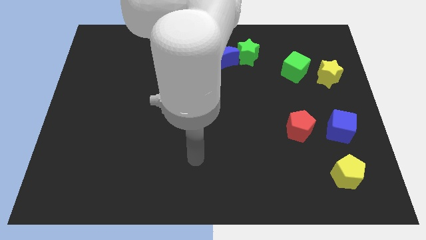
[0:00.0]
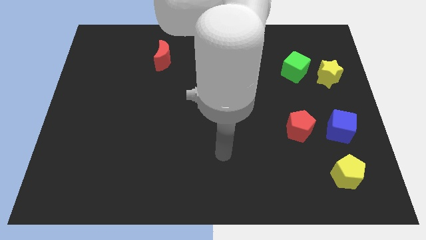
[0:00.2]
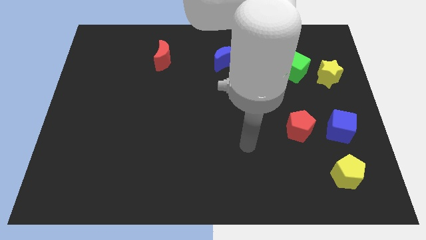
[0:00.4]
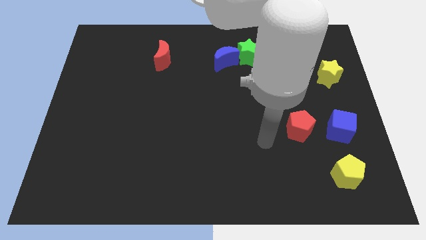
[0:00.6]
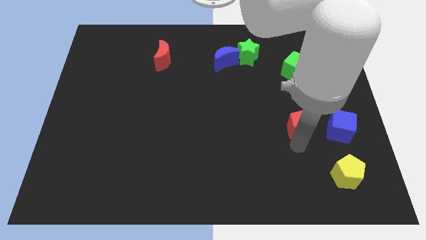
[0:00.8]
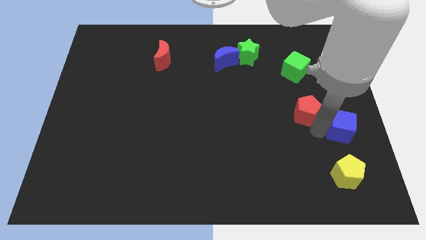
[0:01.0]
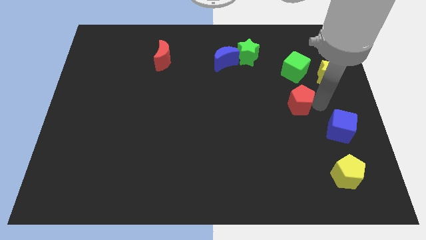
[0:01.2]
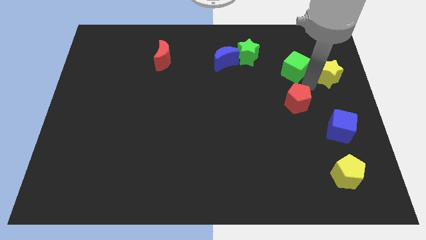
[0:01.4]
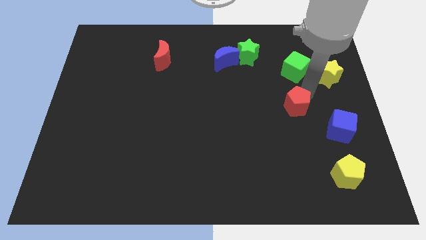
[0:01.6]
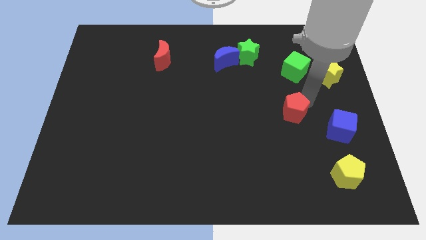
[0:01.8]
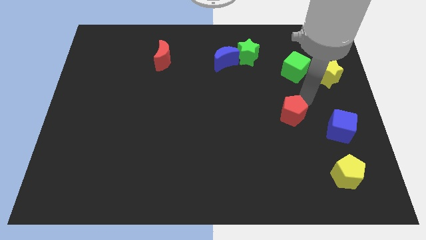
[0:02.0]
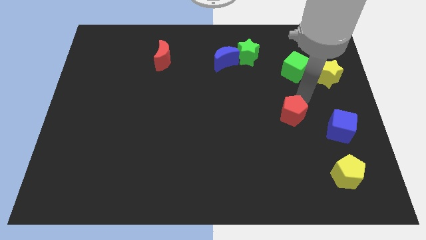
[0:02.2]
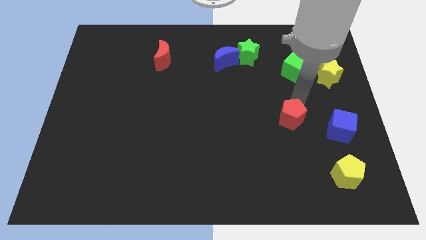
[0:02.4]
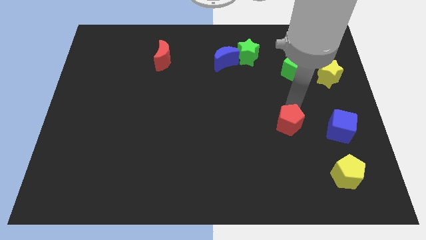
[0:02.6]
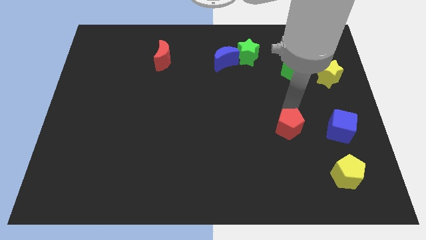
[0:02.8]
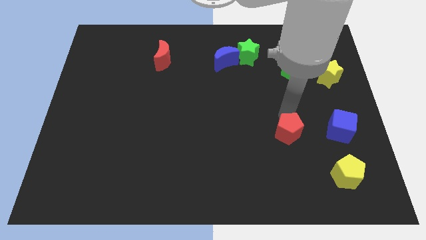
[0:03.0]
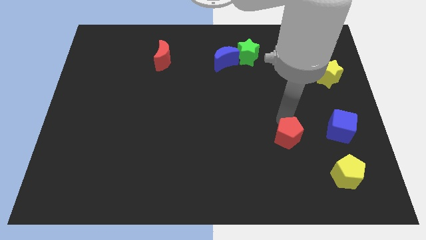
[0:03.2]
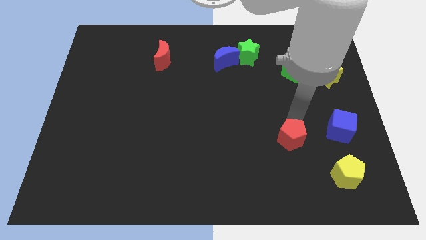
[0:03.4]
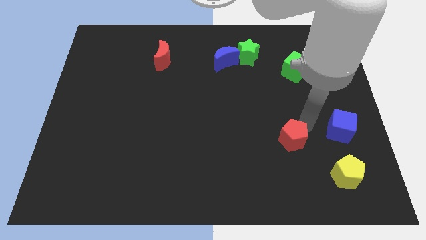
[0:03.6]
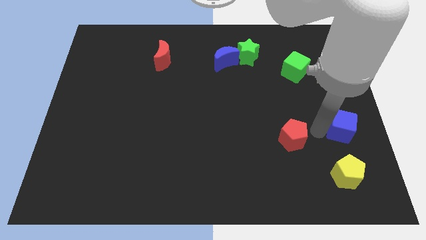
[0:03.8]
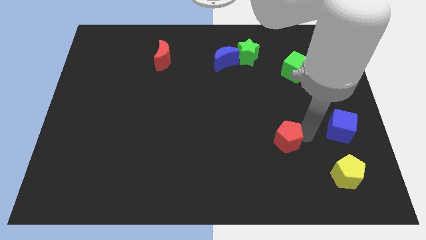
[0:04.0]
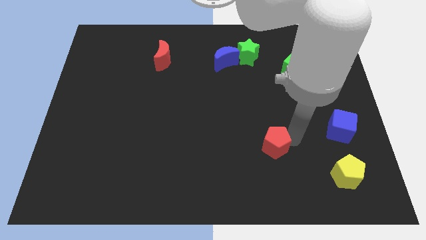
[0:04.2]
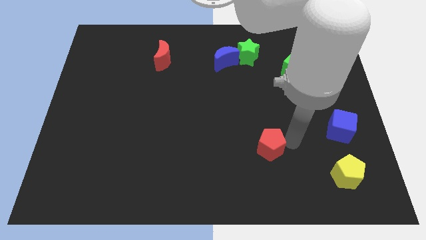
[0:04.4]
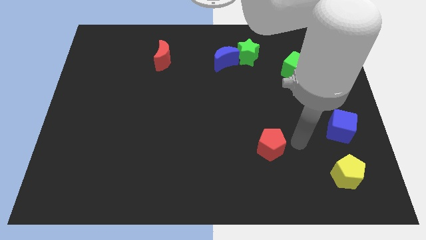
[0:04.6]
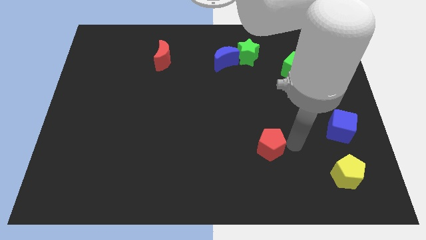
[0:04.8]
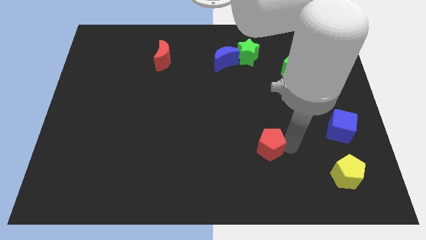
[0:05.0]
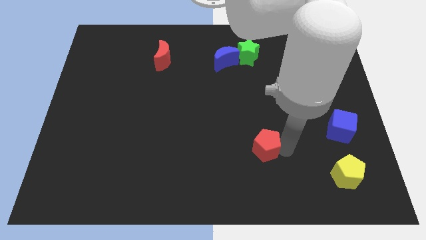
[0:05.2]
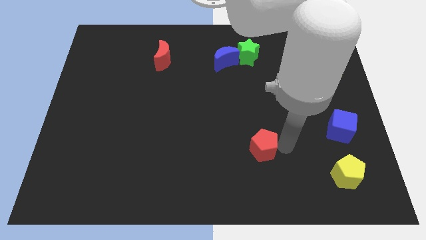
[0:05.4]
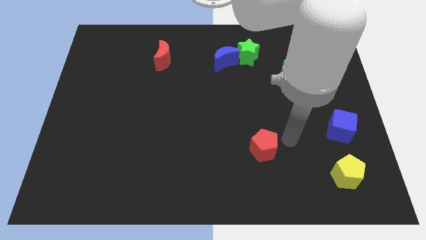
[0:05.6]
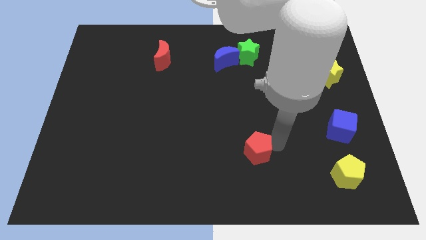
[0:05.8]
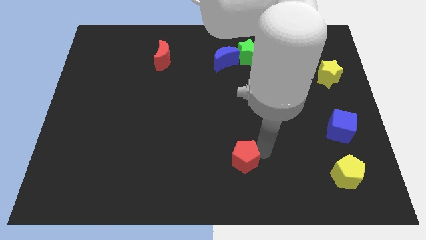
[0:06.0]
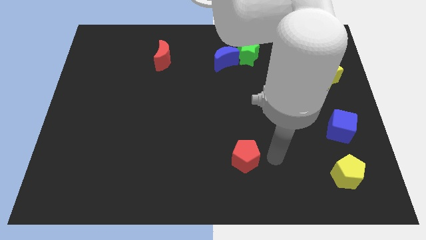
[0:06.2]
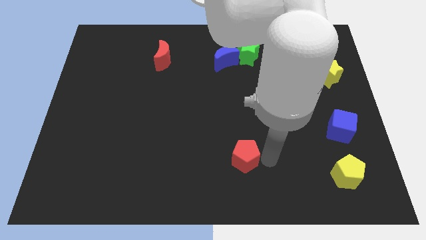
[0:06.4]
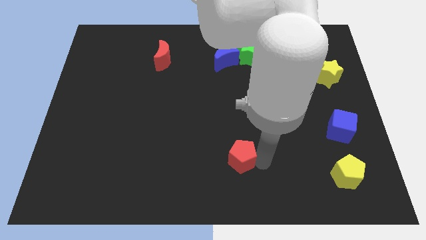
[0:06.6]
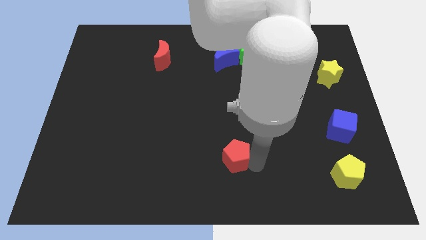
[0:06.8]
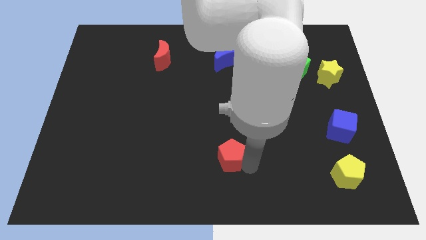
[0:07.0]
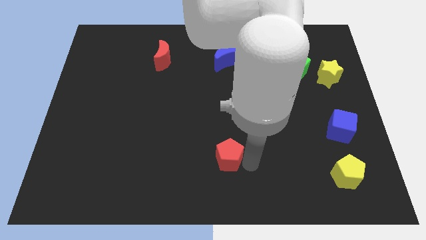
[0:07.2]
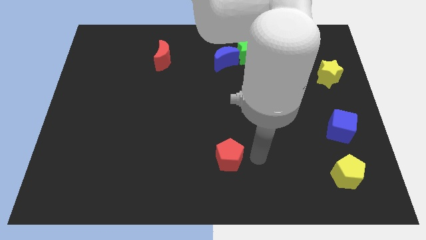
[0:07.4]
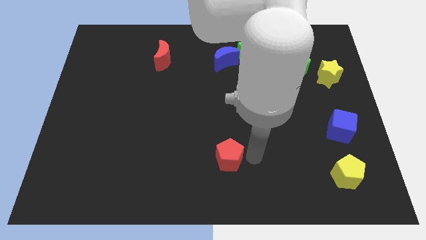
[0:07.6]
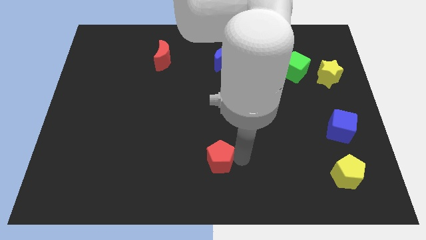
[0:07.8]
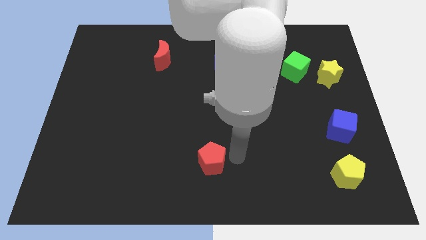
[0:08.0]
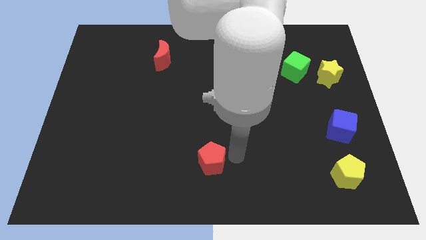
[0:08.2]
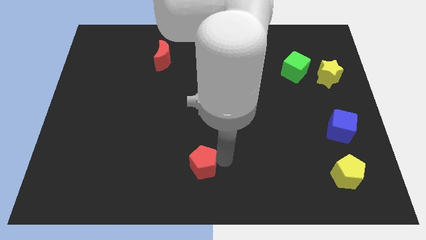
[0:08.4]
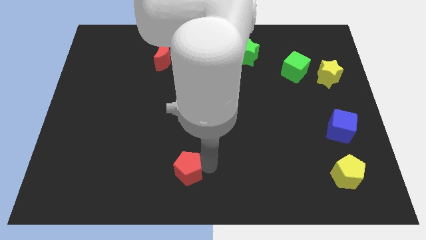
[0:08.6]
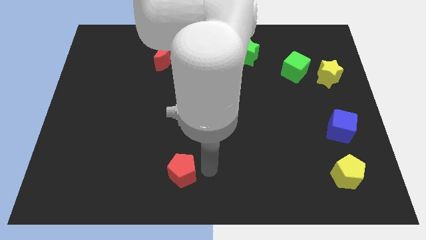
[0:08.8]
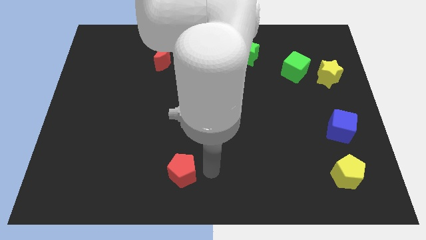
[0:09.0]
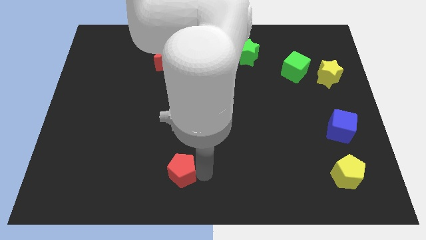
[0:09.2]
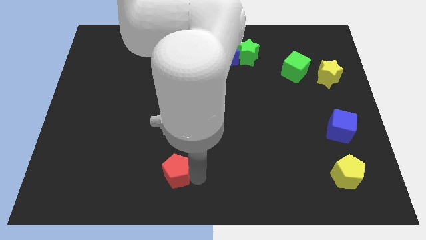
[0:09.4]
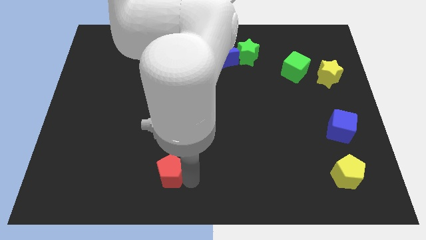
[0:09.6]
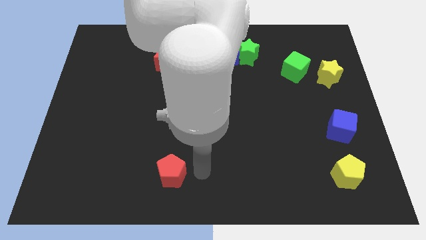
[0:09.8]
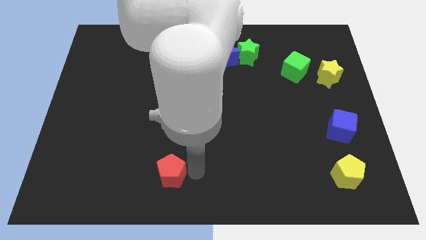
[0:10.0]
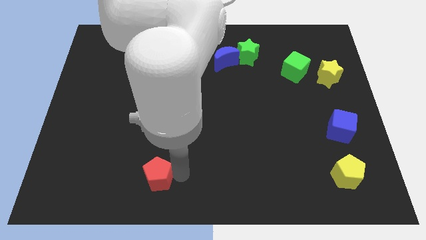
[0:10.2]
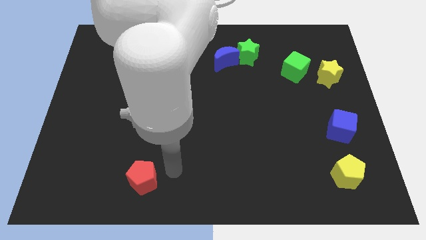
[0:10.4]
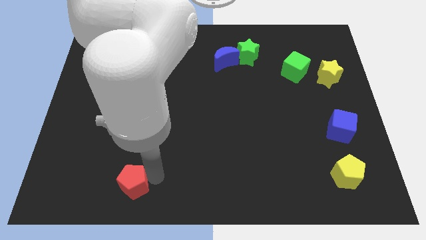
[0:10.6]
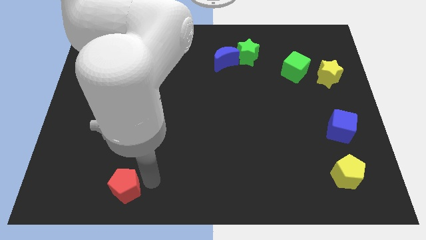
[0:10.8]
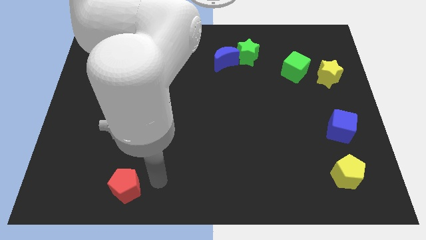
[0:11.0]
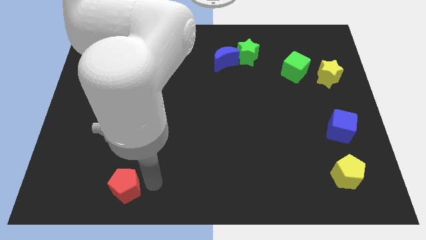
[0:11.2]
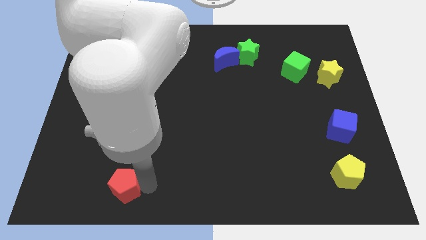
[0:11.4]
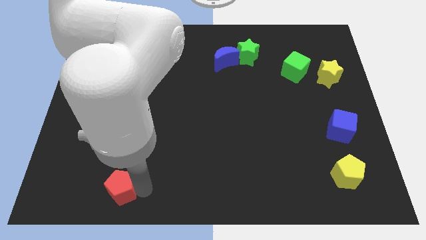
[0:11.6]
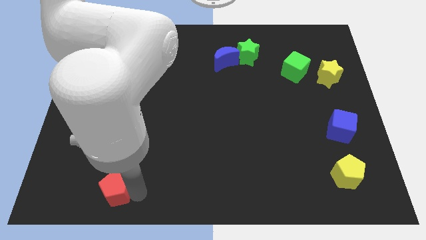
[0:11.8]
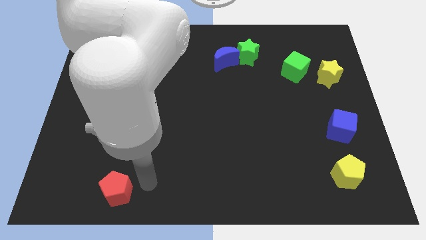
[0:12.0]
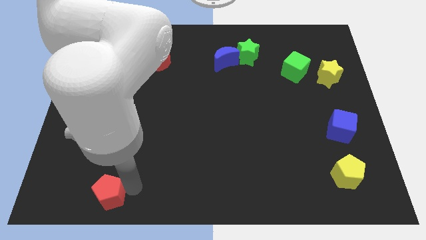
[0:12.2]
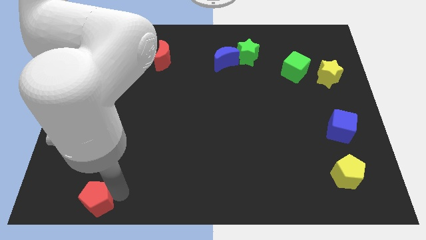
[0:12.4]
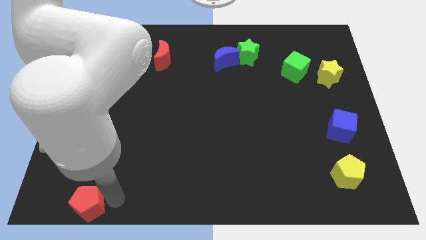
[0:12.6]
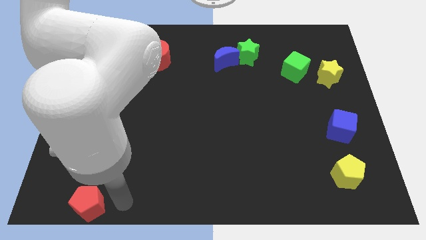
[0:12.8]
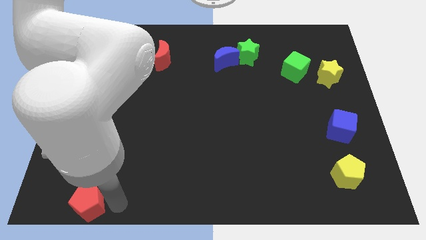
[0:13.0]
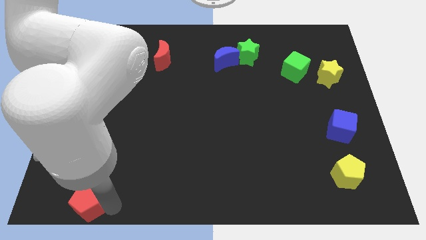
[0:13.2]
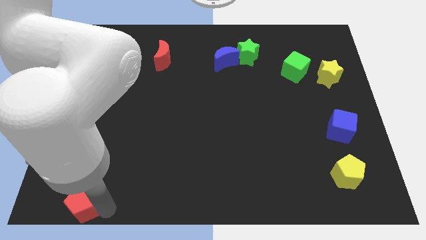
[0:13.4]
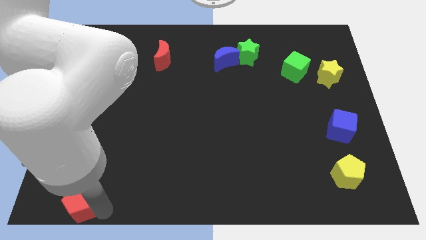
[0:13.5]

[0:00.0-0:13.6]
slide the red pentagon to the lower left corner

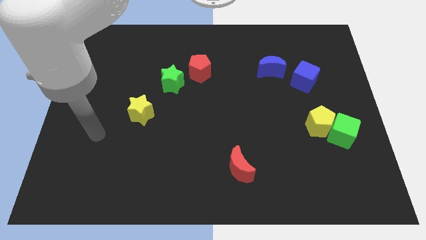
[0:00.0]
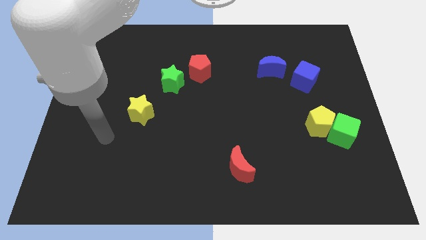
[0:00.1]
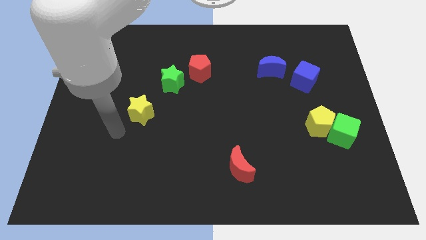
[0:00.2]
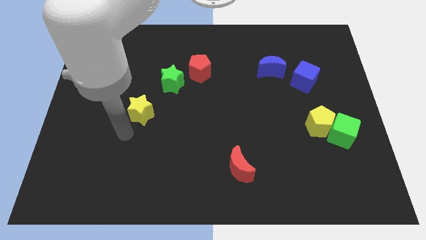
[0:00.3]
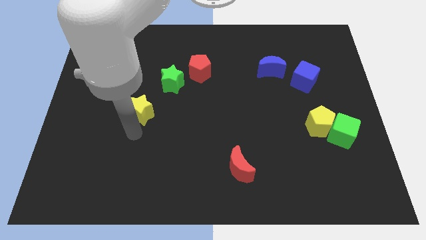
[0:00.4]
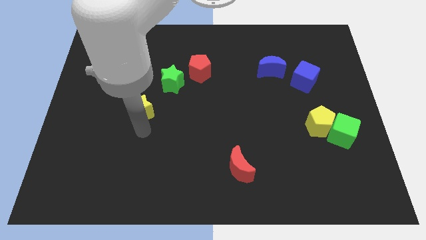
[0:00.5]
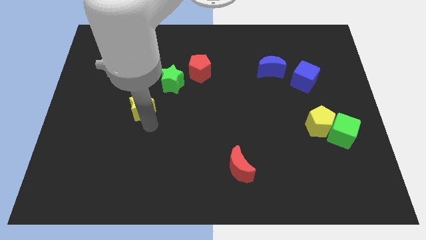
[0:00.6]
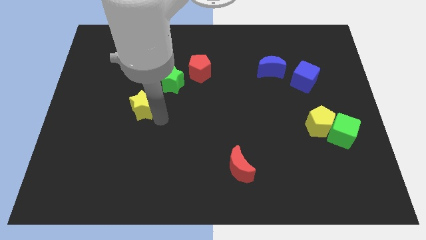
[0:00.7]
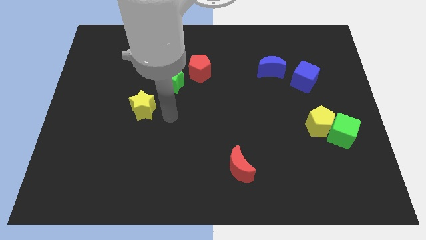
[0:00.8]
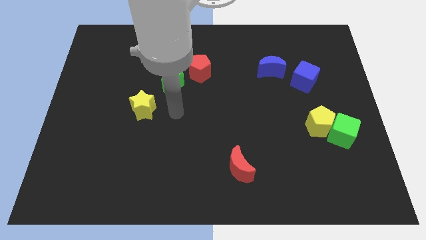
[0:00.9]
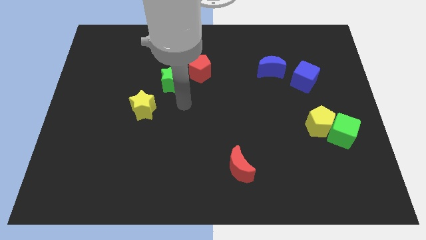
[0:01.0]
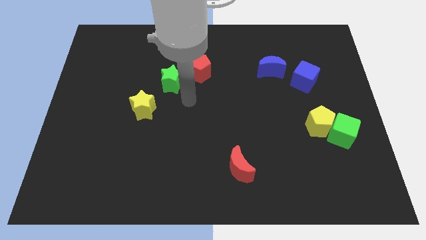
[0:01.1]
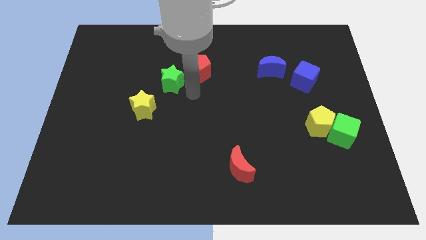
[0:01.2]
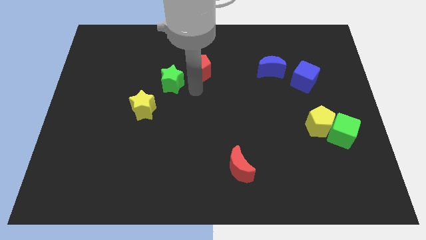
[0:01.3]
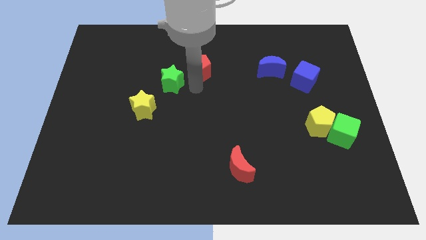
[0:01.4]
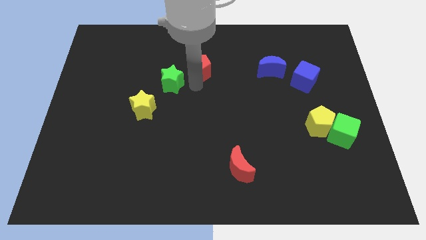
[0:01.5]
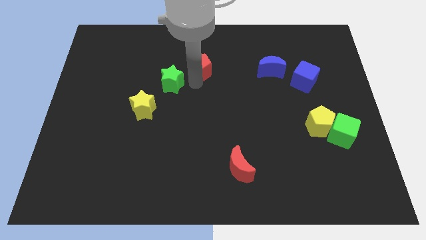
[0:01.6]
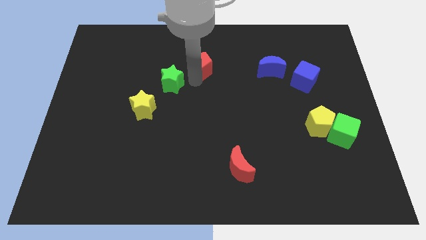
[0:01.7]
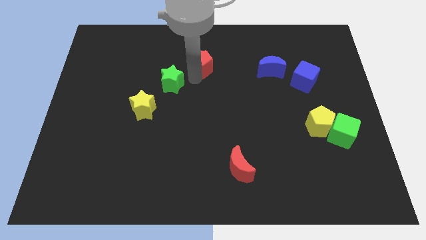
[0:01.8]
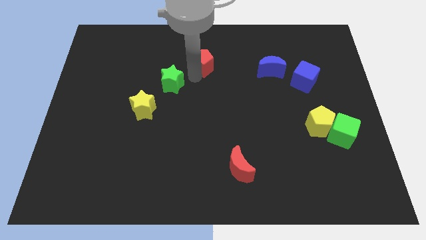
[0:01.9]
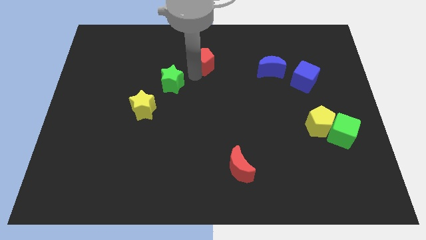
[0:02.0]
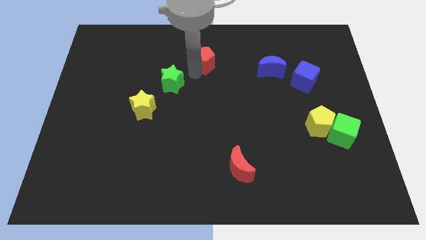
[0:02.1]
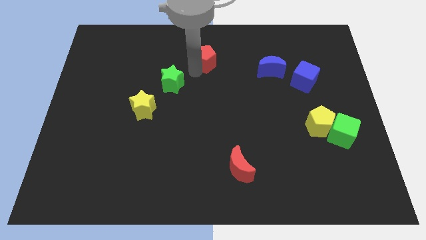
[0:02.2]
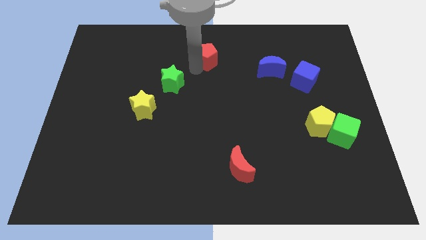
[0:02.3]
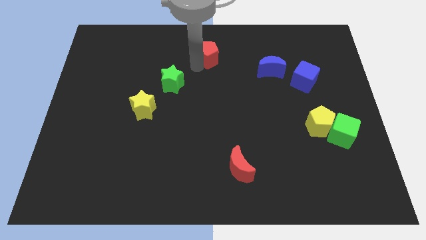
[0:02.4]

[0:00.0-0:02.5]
put the red pentagon to the top
